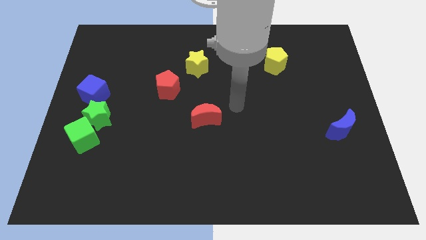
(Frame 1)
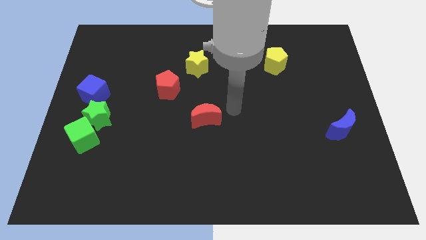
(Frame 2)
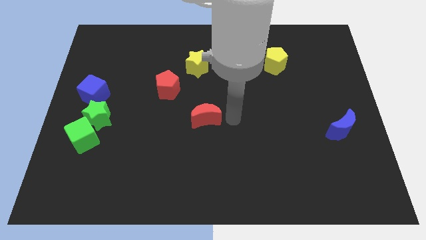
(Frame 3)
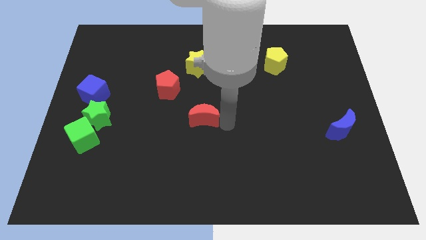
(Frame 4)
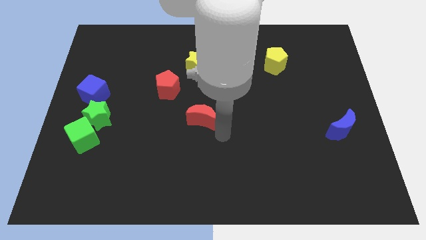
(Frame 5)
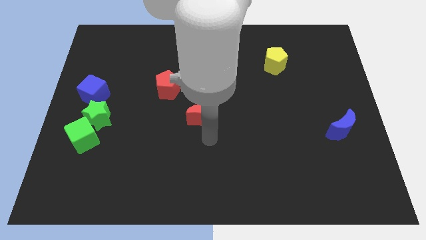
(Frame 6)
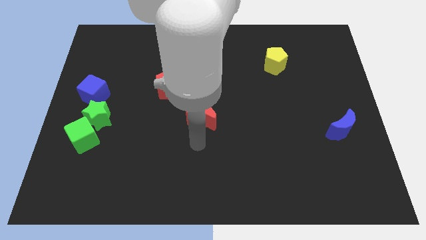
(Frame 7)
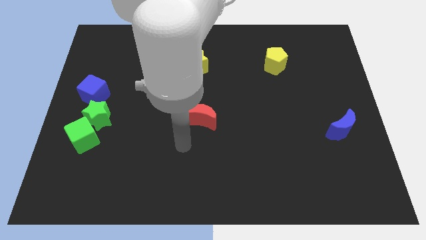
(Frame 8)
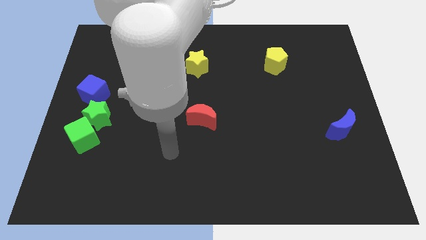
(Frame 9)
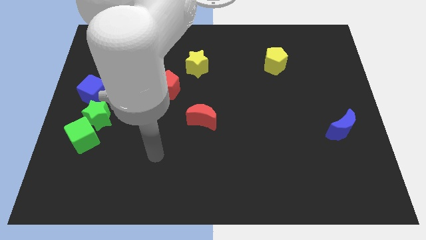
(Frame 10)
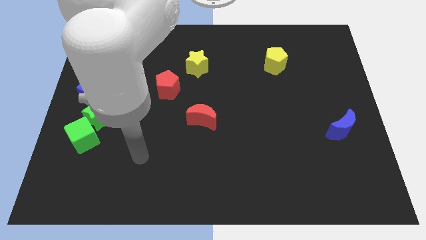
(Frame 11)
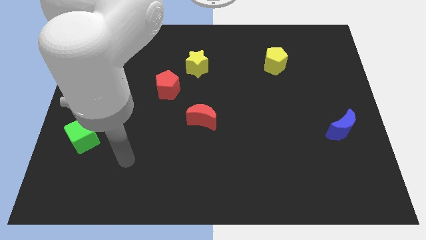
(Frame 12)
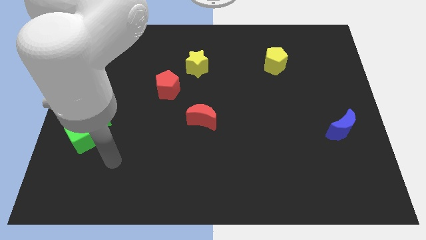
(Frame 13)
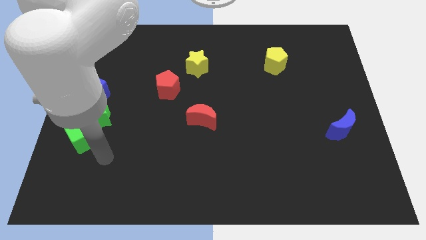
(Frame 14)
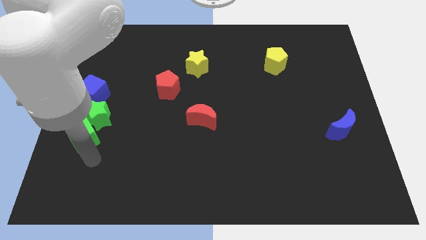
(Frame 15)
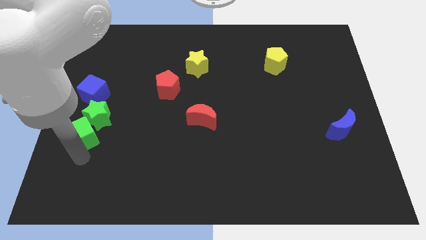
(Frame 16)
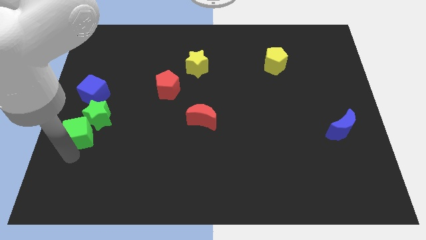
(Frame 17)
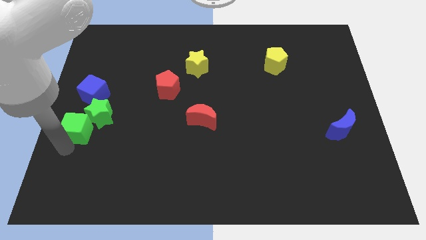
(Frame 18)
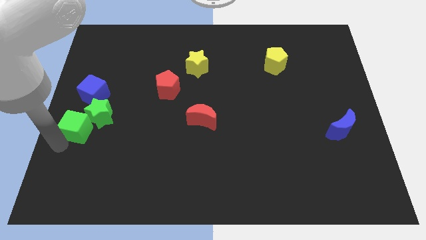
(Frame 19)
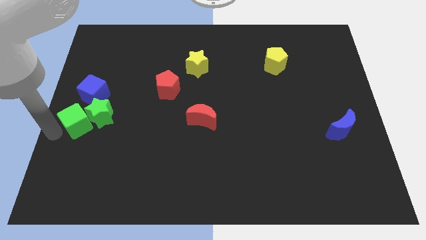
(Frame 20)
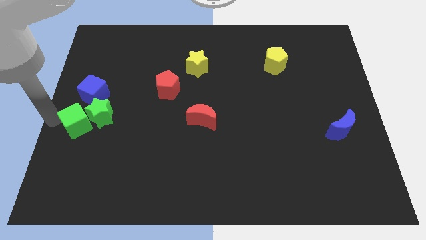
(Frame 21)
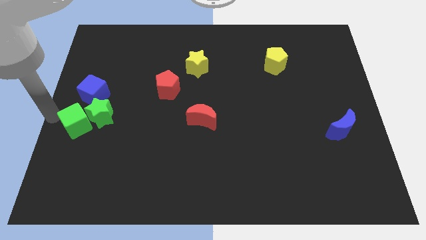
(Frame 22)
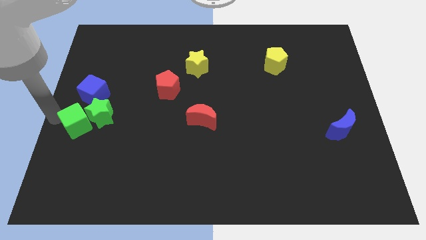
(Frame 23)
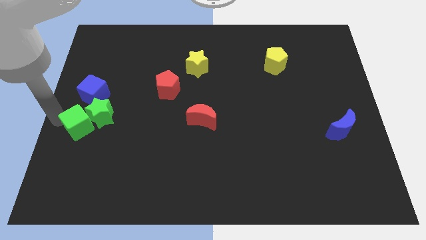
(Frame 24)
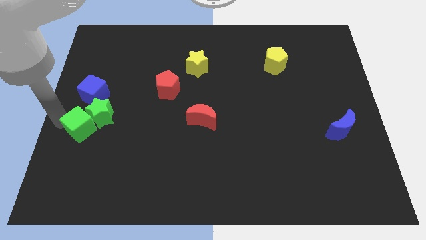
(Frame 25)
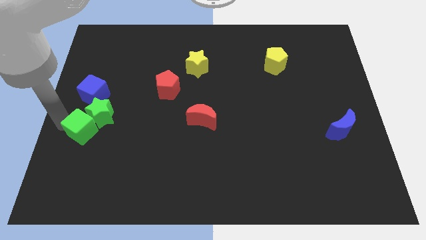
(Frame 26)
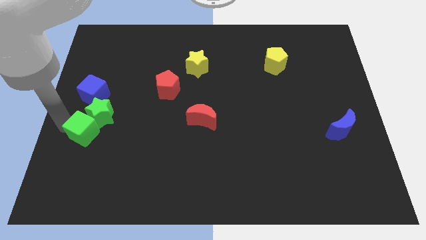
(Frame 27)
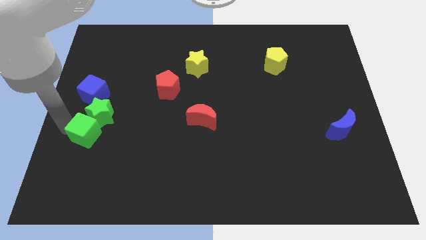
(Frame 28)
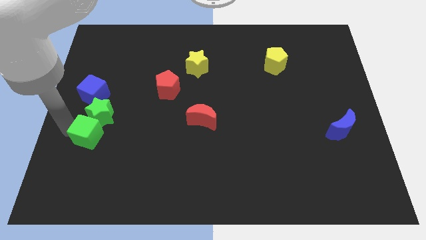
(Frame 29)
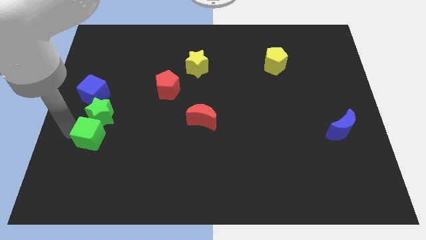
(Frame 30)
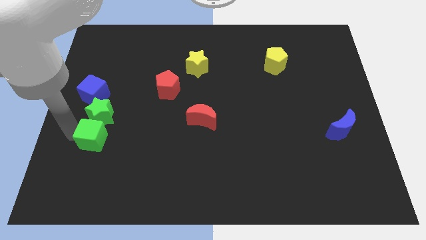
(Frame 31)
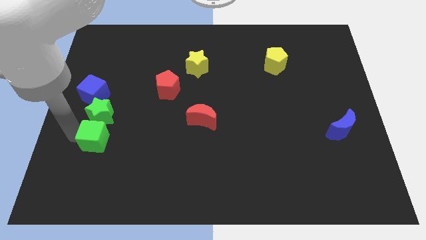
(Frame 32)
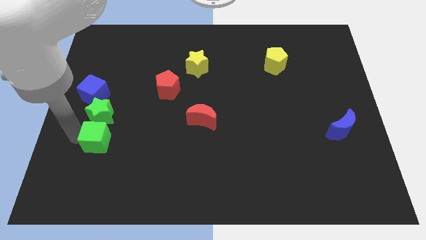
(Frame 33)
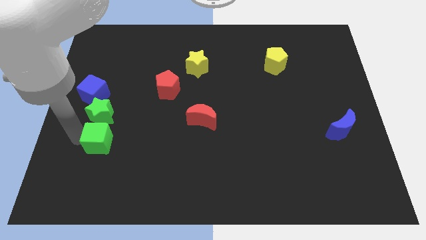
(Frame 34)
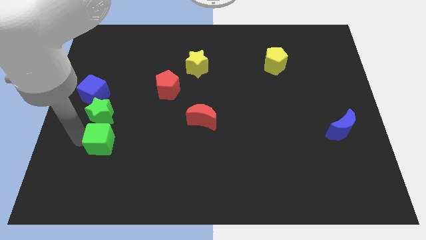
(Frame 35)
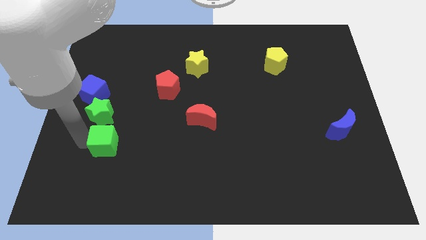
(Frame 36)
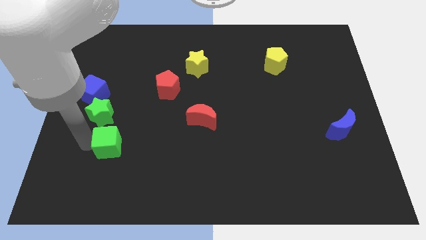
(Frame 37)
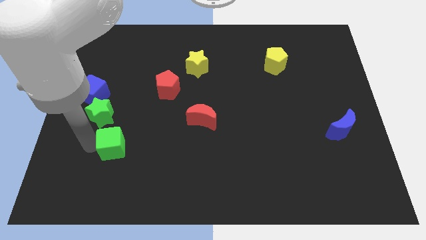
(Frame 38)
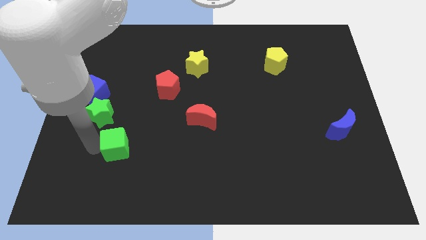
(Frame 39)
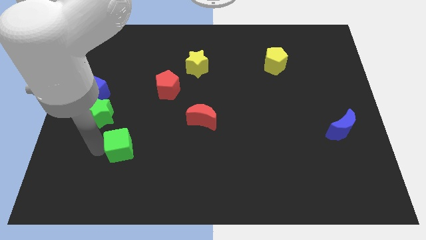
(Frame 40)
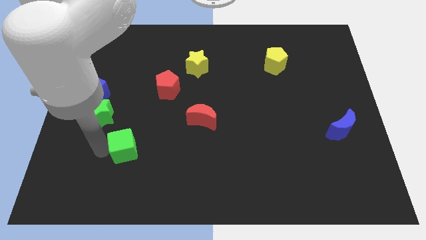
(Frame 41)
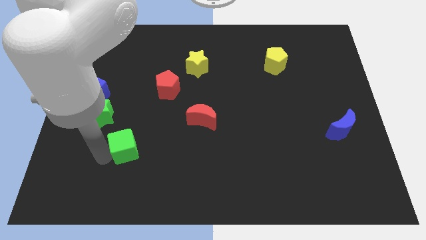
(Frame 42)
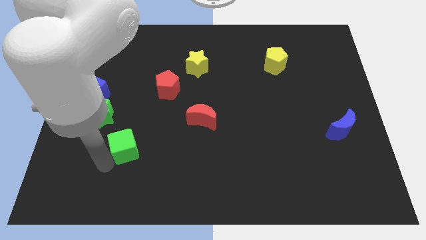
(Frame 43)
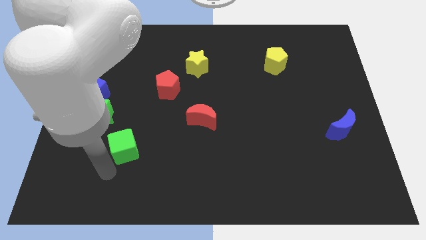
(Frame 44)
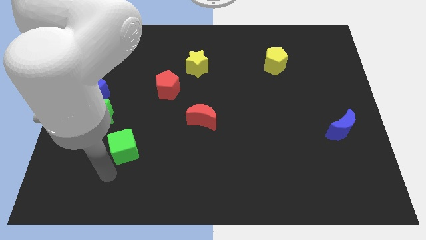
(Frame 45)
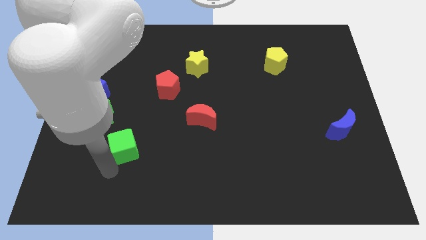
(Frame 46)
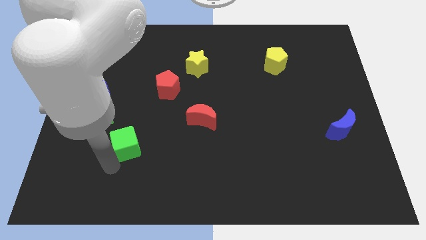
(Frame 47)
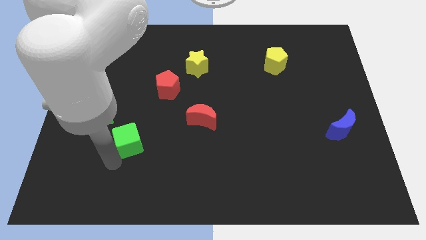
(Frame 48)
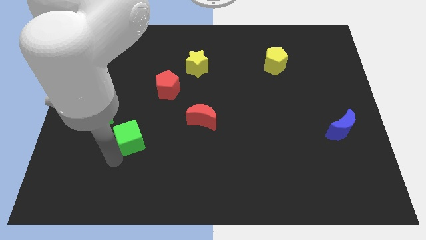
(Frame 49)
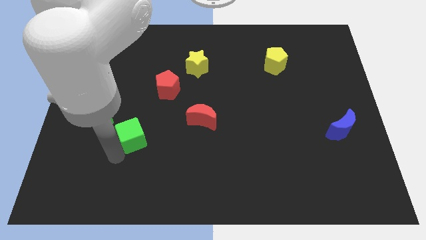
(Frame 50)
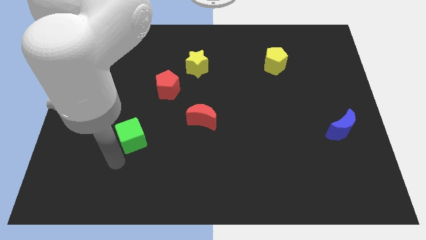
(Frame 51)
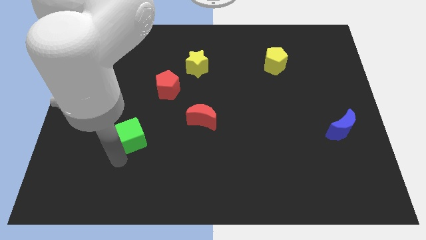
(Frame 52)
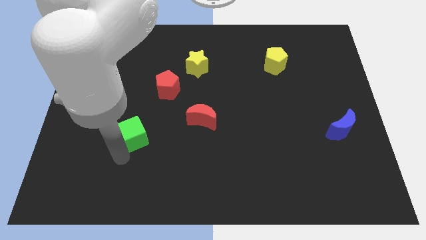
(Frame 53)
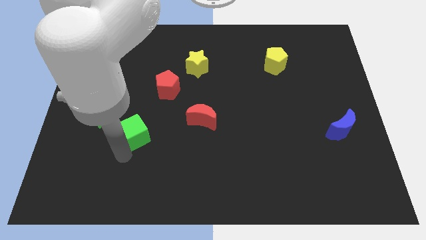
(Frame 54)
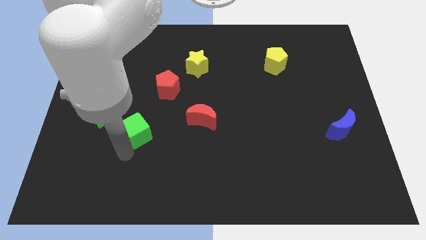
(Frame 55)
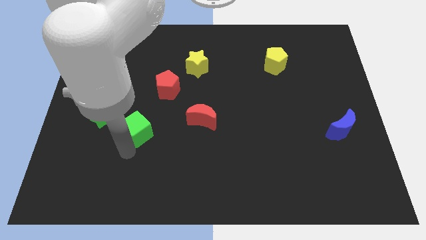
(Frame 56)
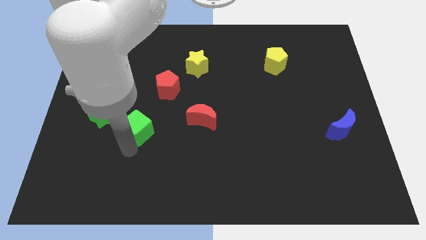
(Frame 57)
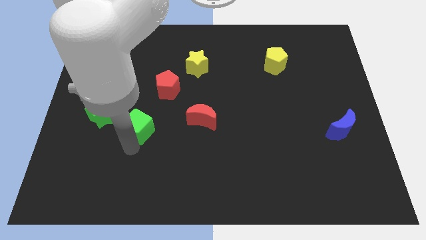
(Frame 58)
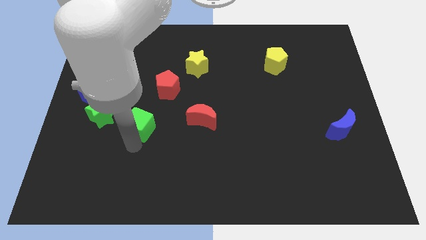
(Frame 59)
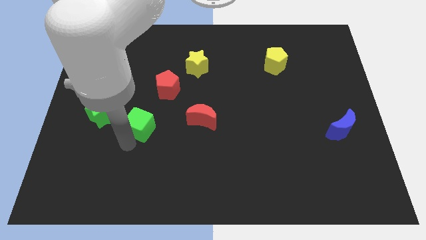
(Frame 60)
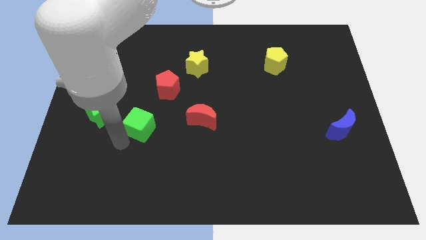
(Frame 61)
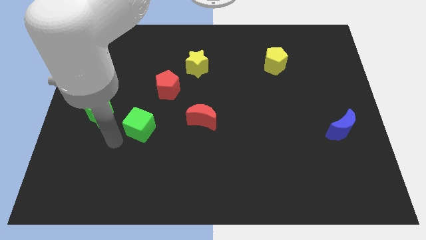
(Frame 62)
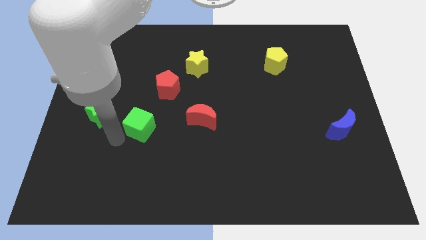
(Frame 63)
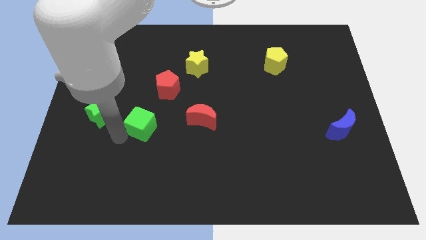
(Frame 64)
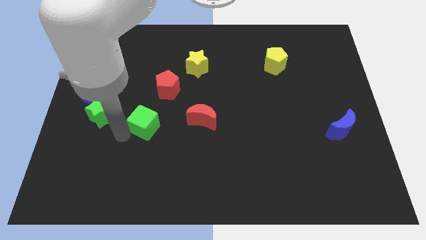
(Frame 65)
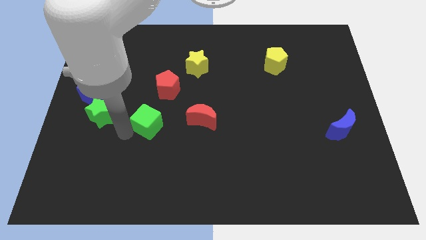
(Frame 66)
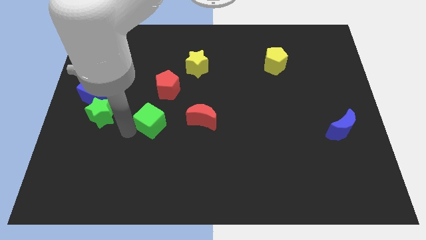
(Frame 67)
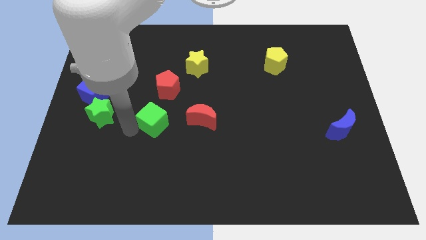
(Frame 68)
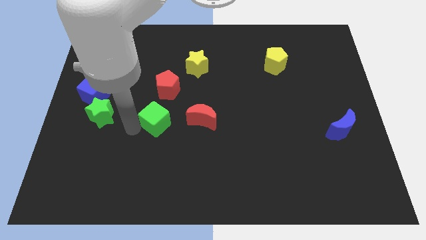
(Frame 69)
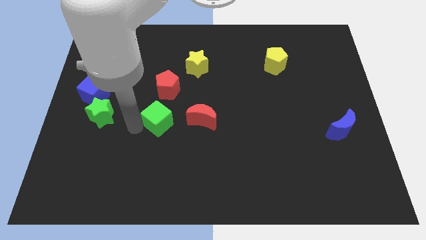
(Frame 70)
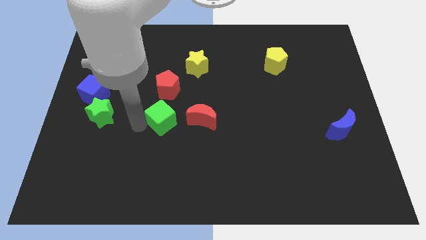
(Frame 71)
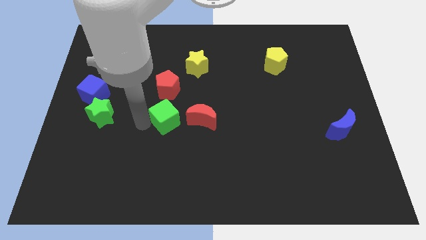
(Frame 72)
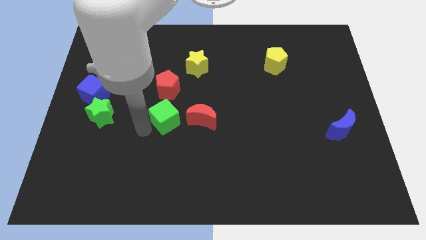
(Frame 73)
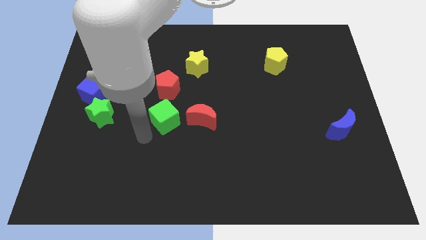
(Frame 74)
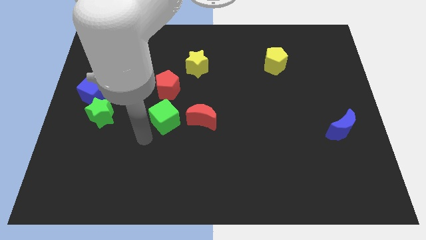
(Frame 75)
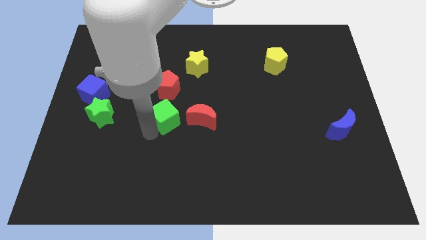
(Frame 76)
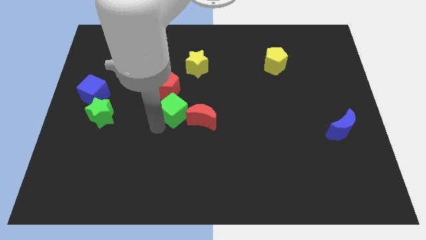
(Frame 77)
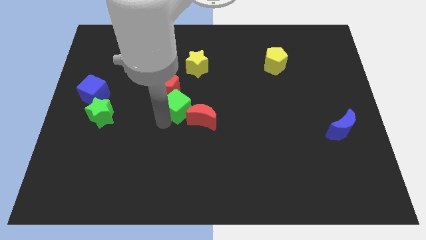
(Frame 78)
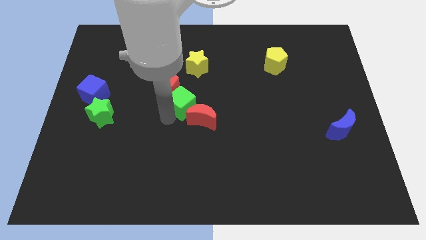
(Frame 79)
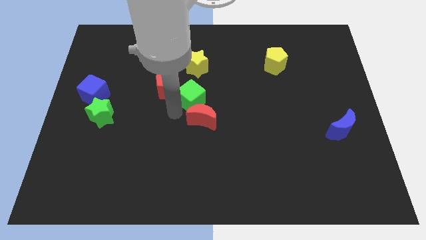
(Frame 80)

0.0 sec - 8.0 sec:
put the green cube to the top side of the red moon
